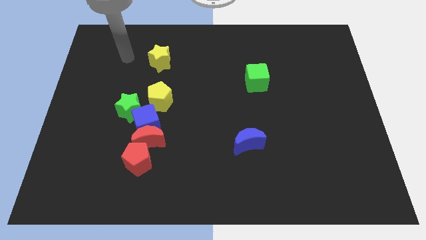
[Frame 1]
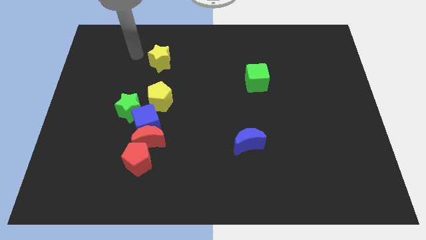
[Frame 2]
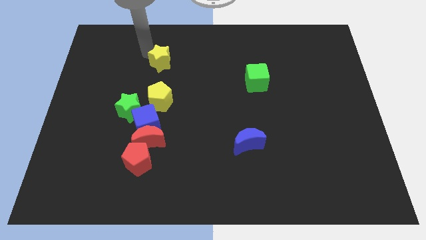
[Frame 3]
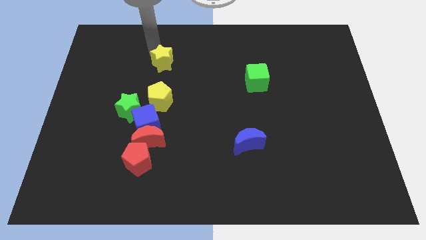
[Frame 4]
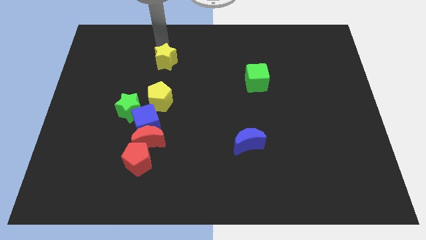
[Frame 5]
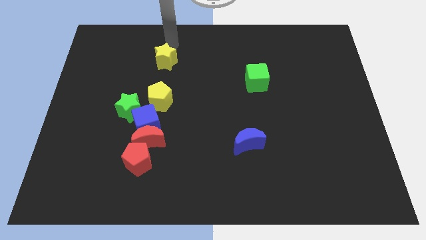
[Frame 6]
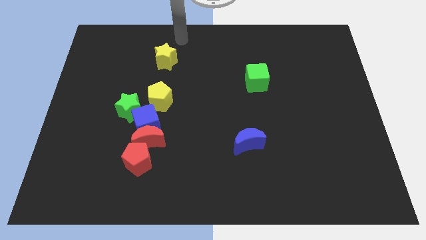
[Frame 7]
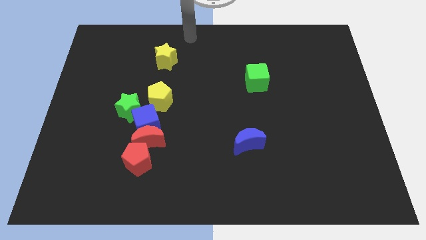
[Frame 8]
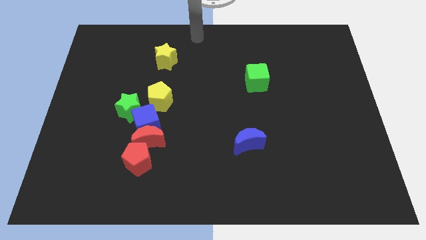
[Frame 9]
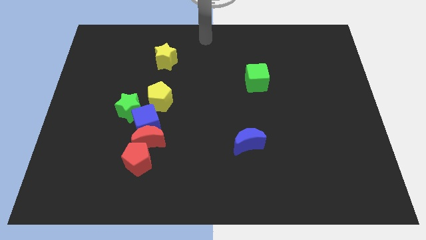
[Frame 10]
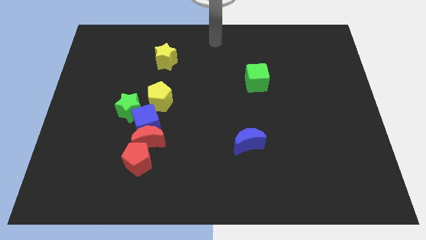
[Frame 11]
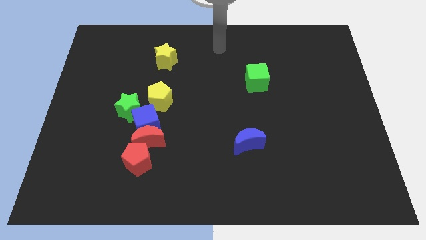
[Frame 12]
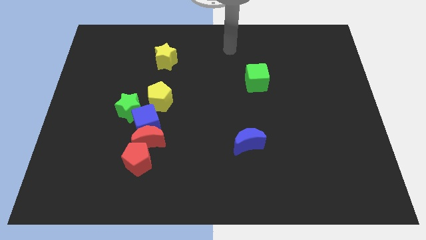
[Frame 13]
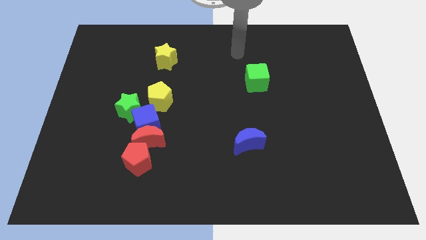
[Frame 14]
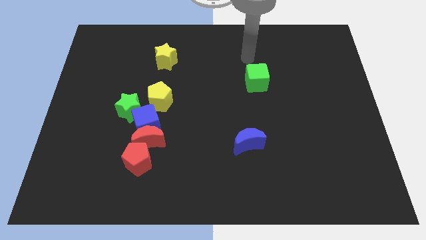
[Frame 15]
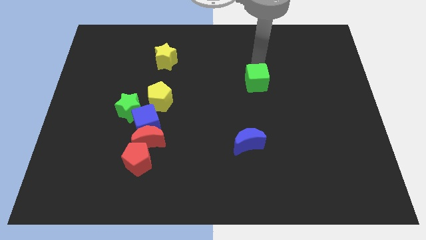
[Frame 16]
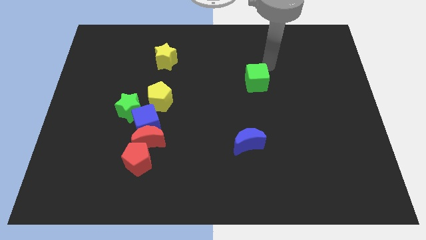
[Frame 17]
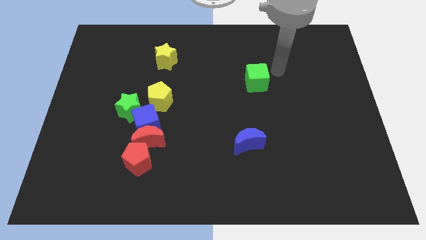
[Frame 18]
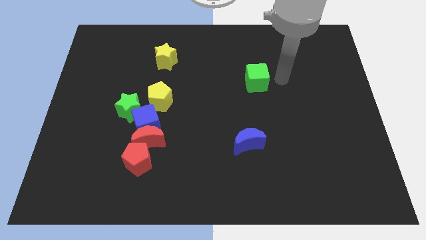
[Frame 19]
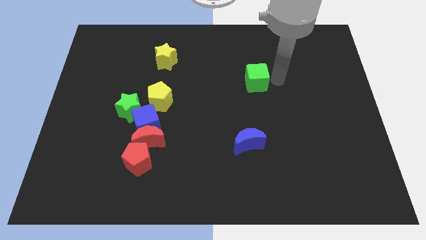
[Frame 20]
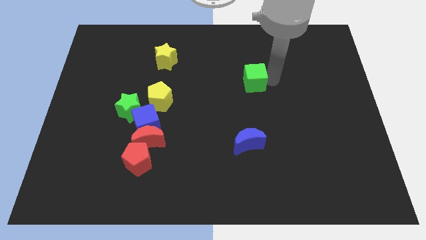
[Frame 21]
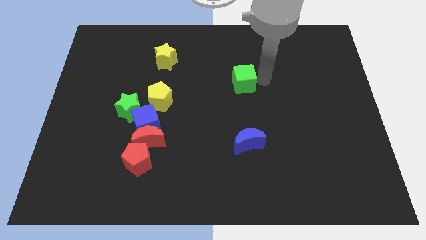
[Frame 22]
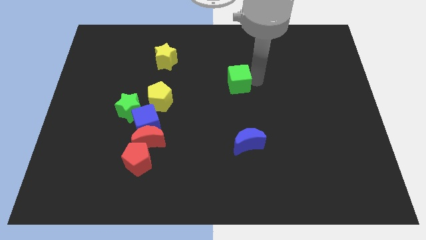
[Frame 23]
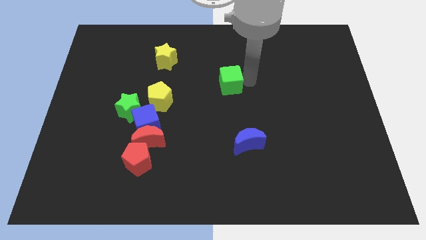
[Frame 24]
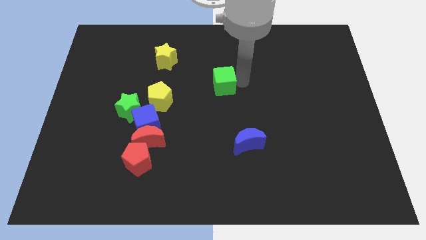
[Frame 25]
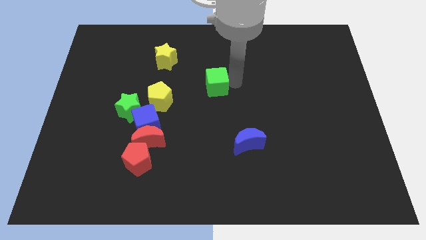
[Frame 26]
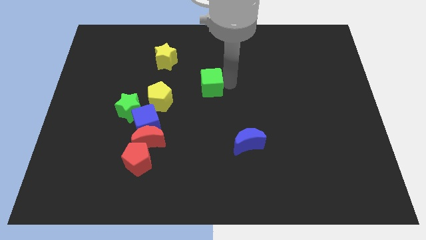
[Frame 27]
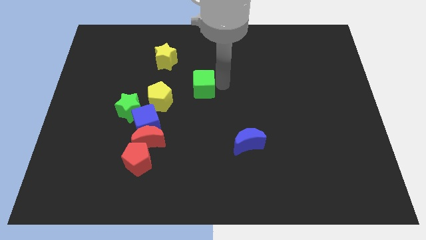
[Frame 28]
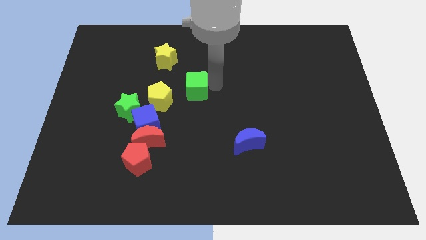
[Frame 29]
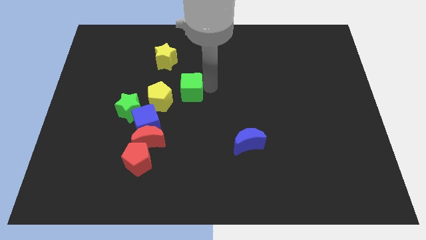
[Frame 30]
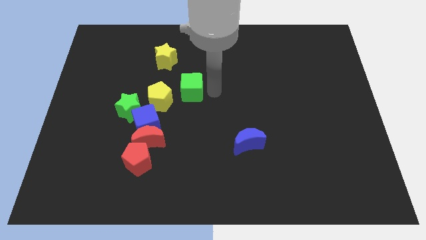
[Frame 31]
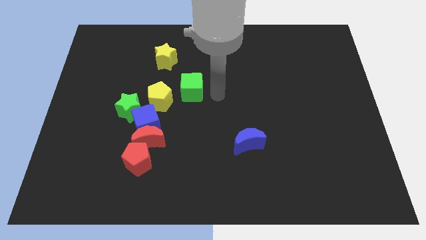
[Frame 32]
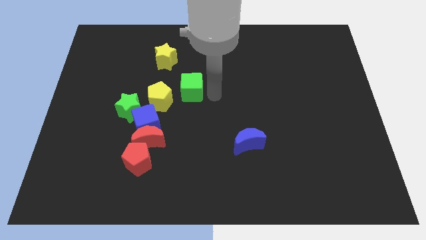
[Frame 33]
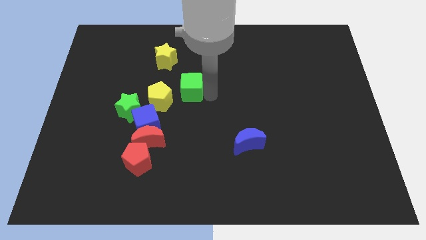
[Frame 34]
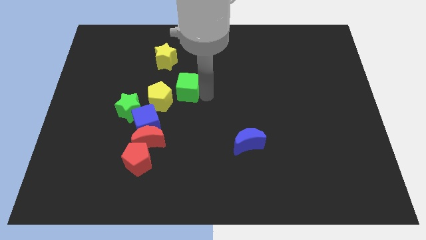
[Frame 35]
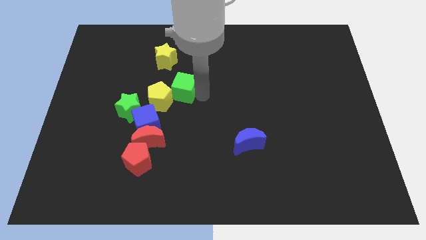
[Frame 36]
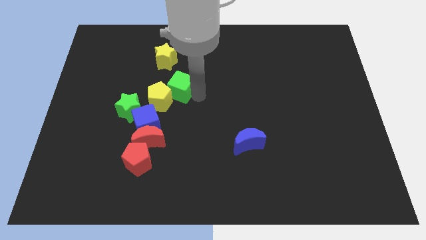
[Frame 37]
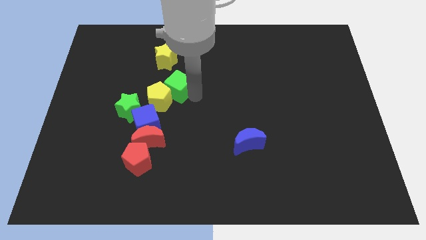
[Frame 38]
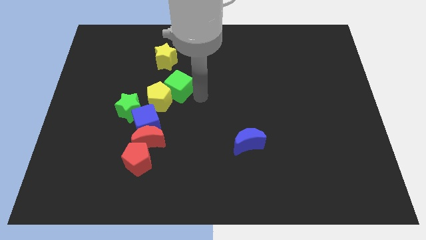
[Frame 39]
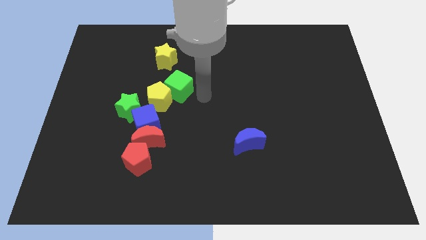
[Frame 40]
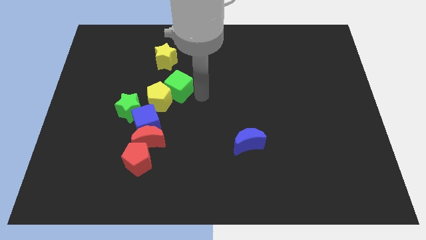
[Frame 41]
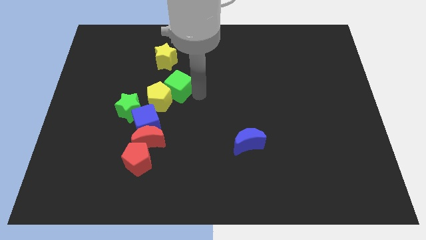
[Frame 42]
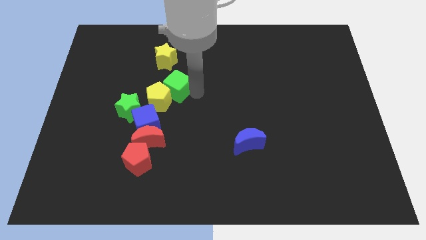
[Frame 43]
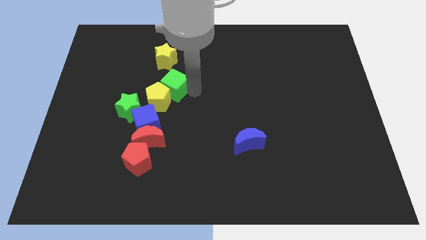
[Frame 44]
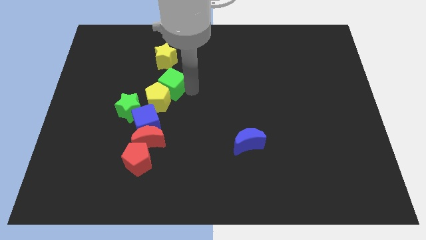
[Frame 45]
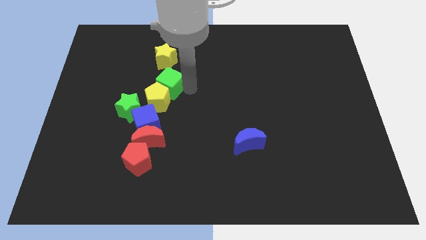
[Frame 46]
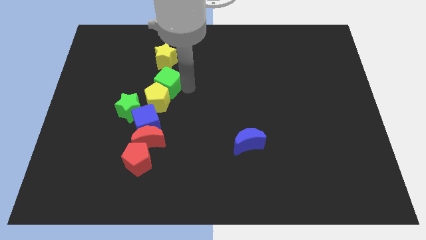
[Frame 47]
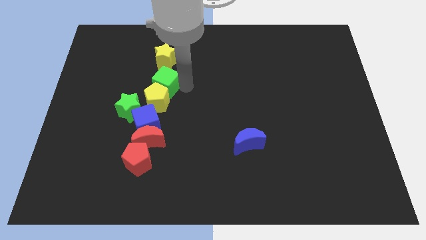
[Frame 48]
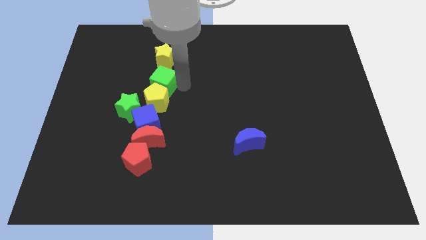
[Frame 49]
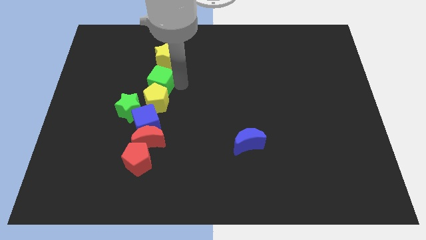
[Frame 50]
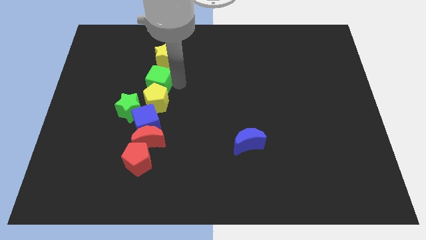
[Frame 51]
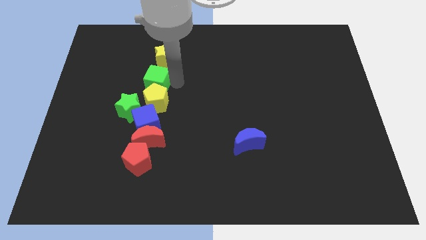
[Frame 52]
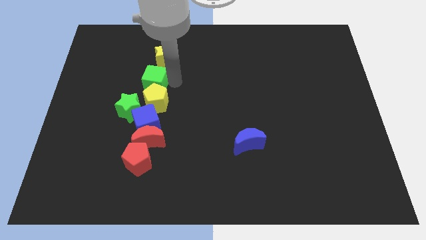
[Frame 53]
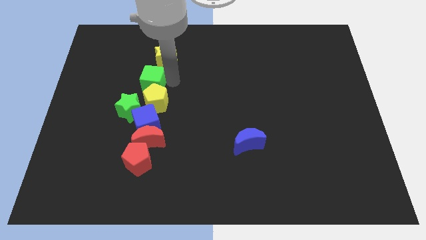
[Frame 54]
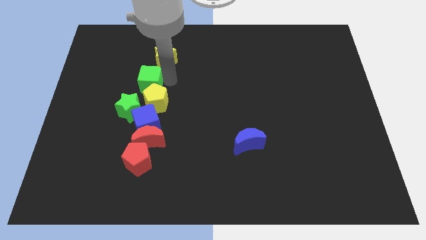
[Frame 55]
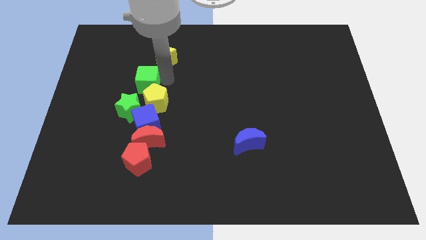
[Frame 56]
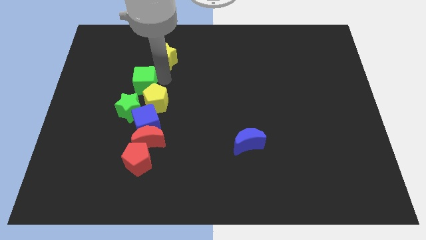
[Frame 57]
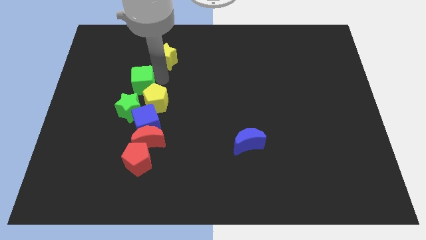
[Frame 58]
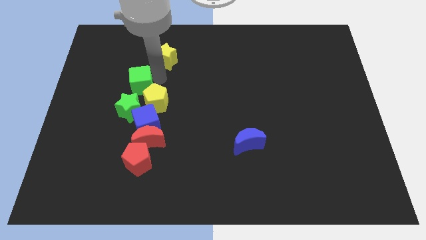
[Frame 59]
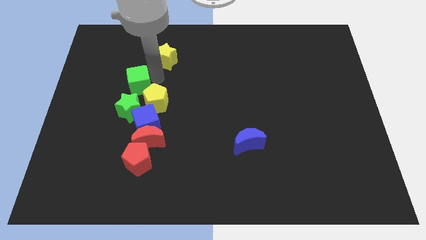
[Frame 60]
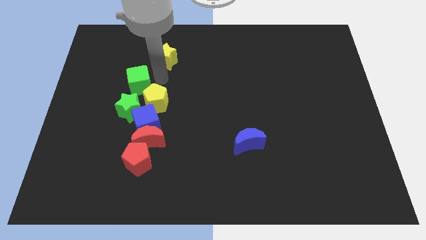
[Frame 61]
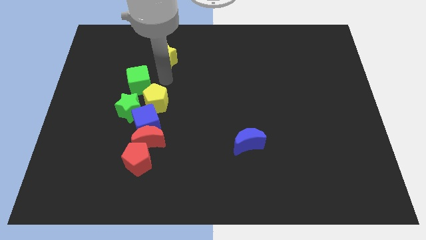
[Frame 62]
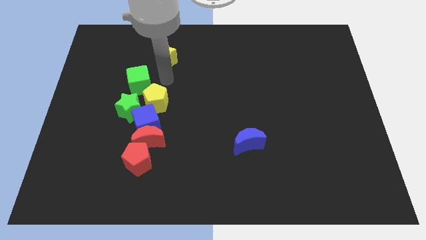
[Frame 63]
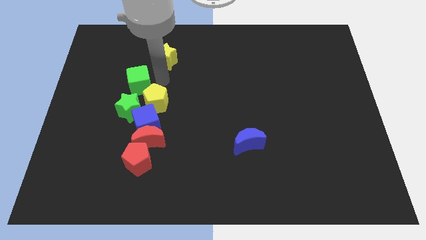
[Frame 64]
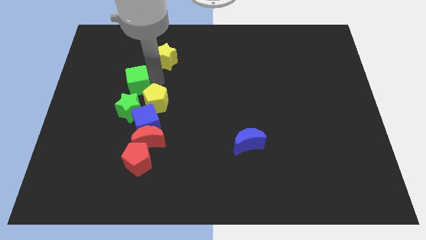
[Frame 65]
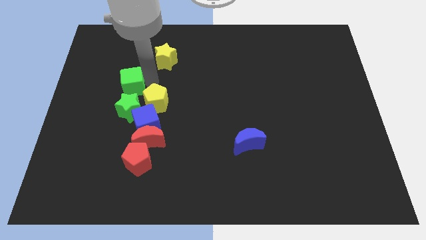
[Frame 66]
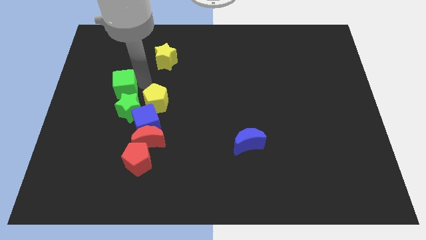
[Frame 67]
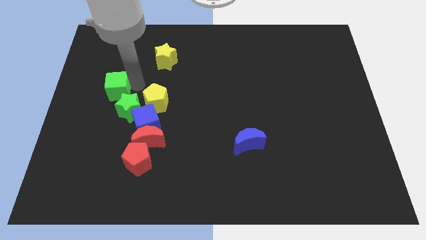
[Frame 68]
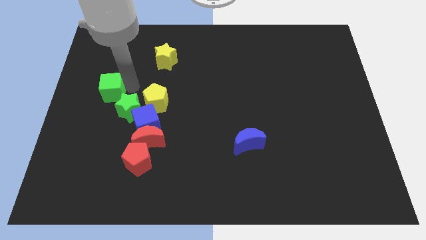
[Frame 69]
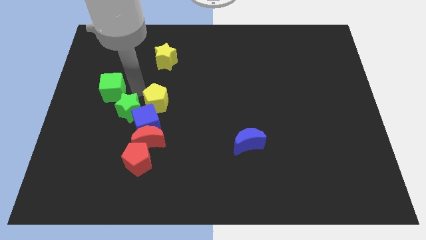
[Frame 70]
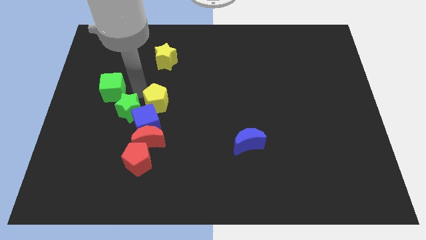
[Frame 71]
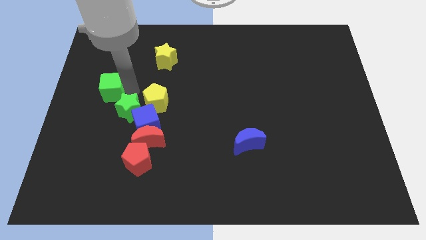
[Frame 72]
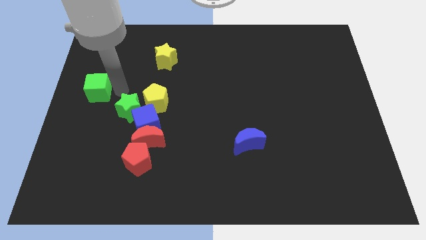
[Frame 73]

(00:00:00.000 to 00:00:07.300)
slide the green cube to the left side
